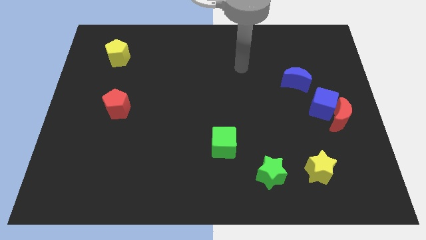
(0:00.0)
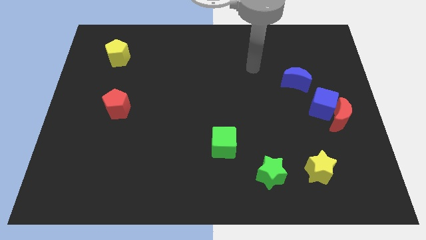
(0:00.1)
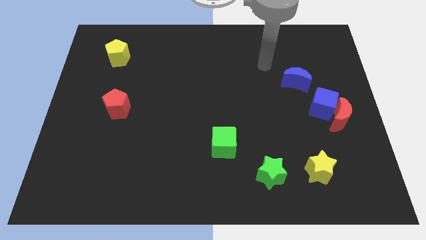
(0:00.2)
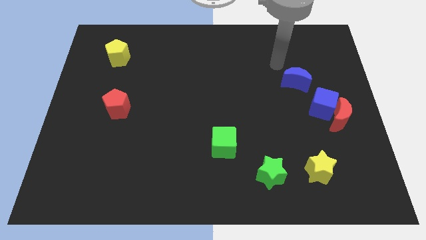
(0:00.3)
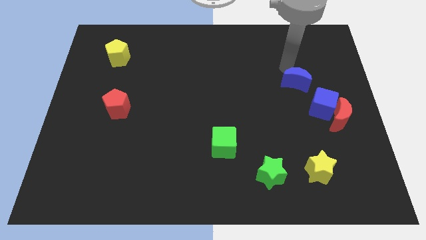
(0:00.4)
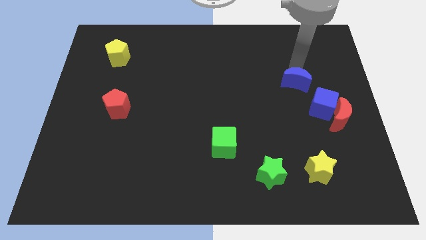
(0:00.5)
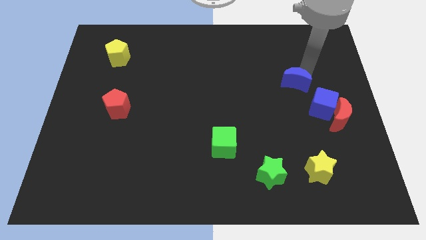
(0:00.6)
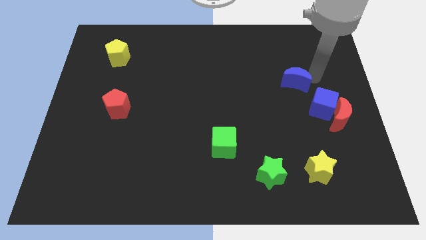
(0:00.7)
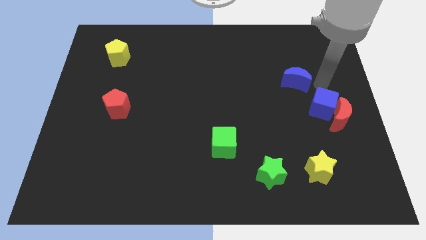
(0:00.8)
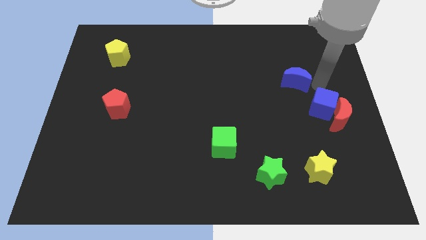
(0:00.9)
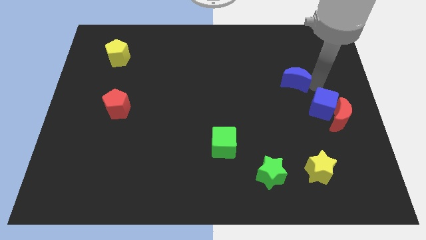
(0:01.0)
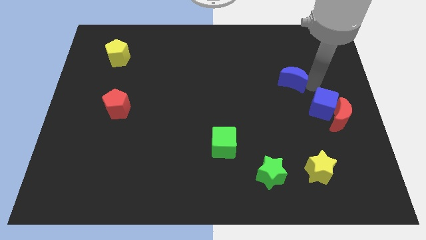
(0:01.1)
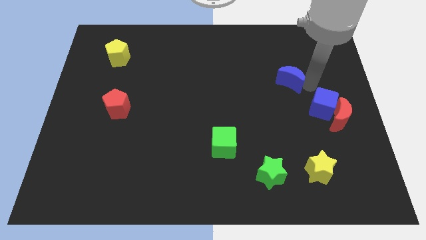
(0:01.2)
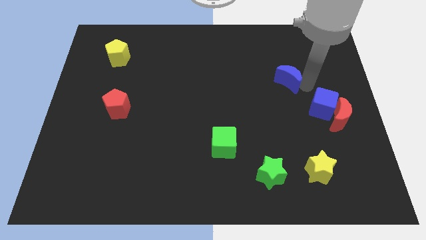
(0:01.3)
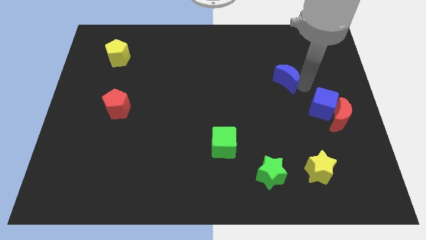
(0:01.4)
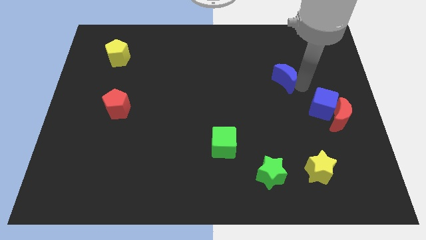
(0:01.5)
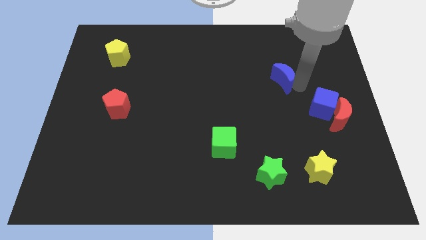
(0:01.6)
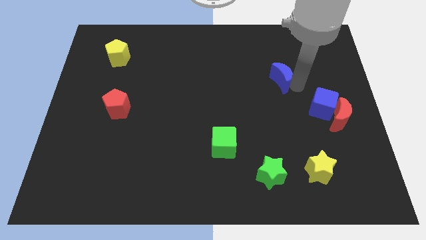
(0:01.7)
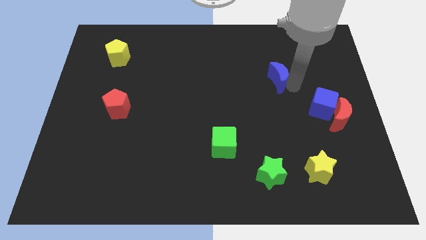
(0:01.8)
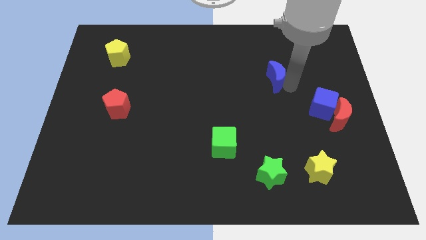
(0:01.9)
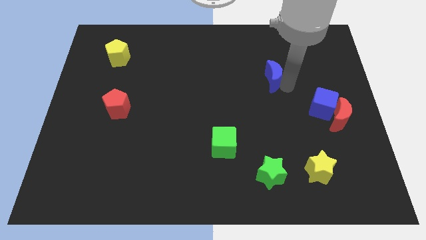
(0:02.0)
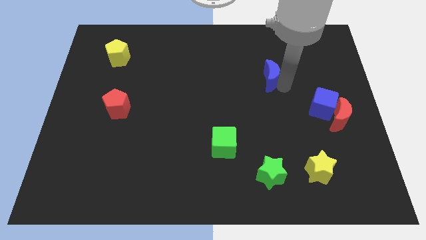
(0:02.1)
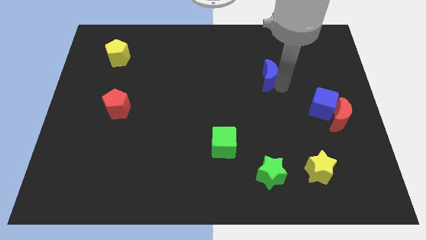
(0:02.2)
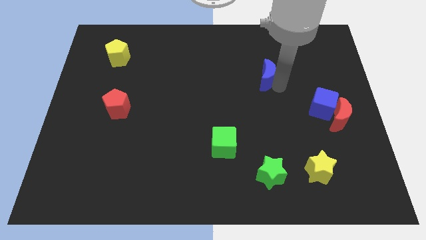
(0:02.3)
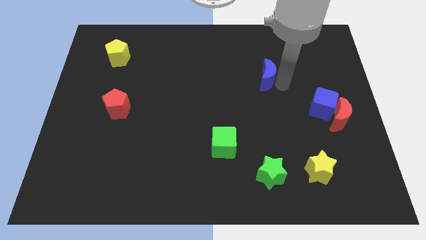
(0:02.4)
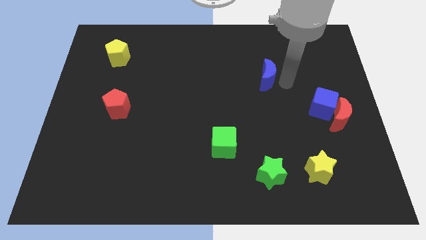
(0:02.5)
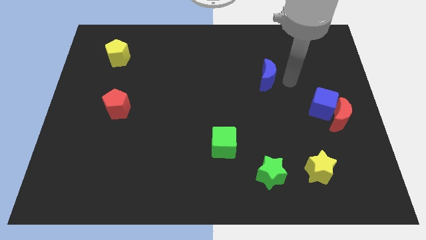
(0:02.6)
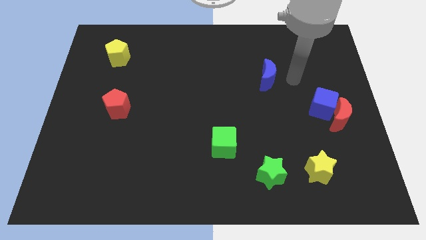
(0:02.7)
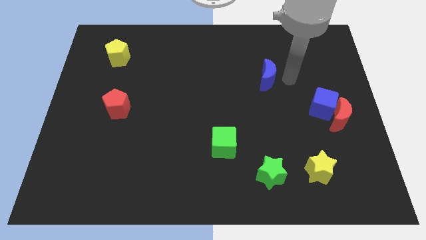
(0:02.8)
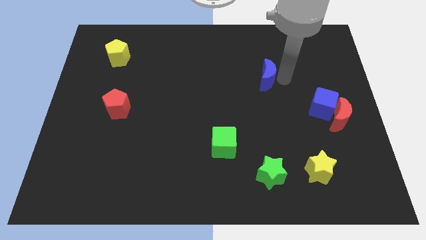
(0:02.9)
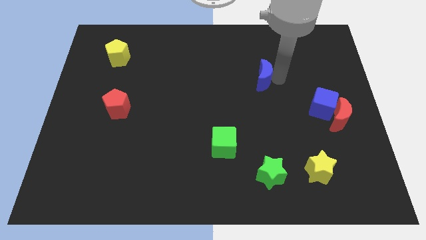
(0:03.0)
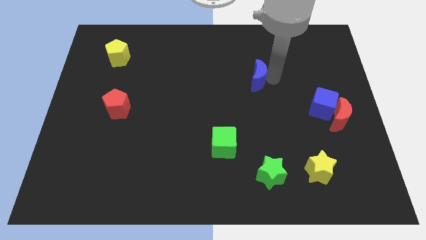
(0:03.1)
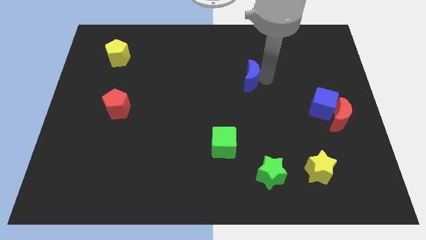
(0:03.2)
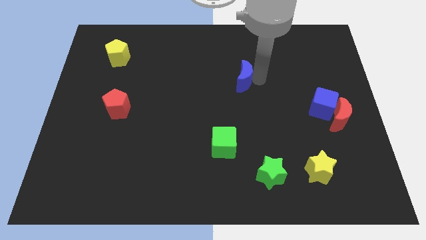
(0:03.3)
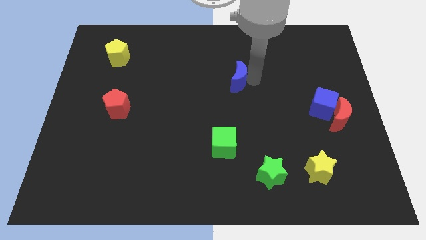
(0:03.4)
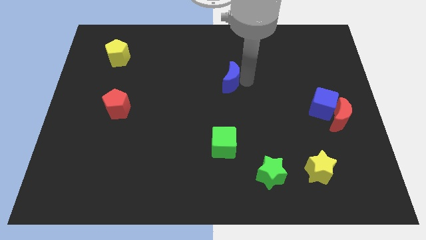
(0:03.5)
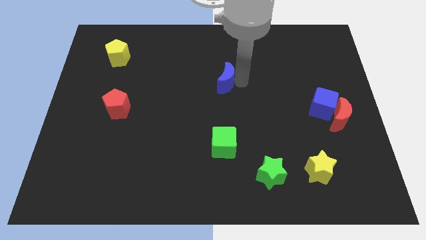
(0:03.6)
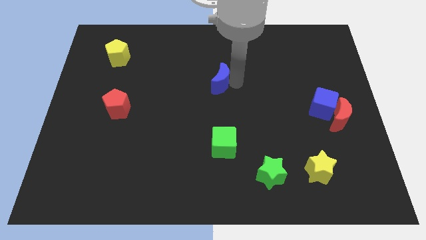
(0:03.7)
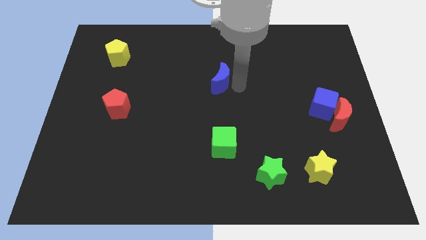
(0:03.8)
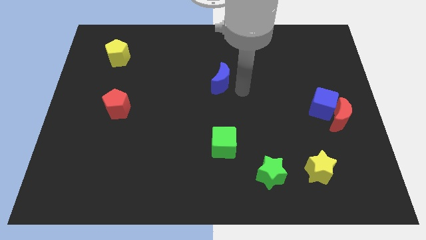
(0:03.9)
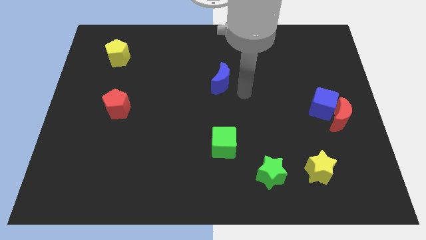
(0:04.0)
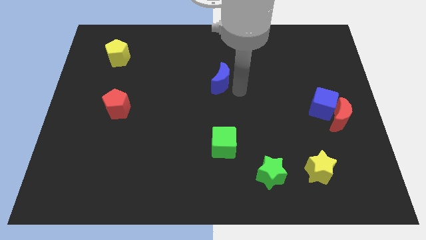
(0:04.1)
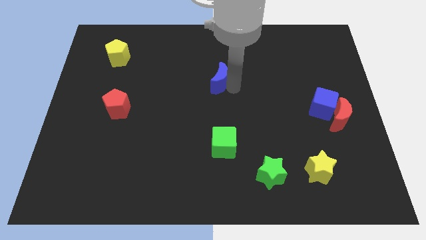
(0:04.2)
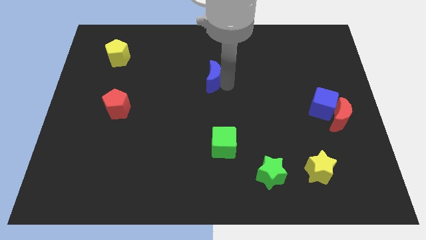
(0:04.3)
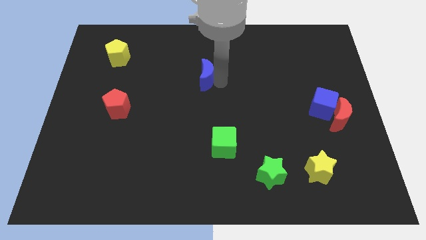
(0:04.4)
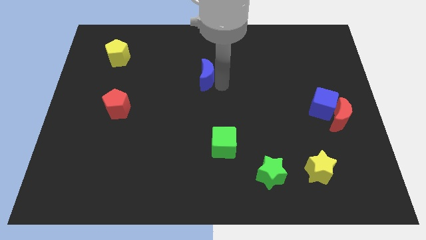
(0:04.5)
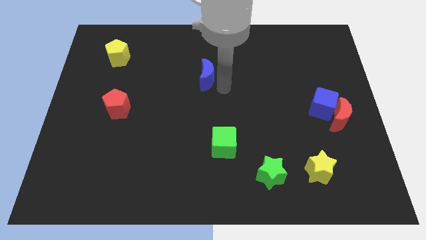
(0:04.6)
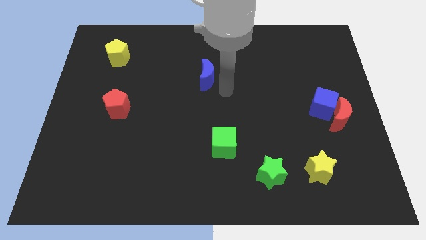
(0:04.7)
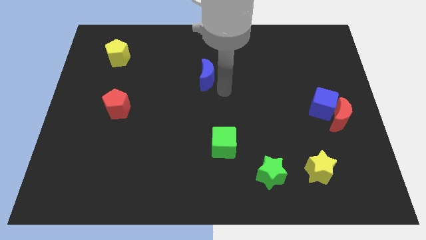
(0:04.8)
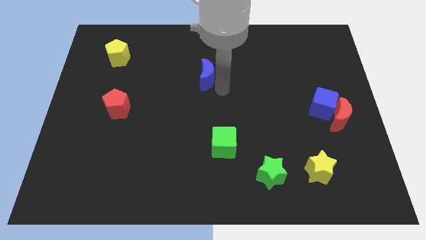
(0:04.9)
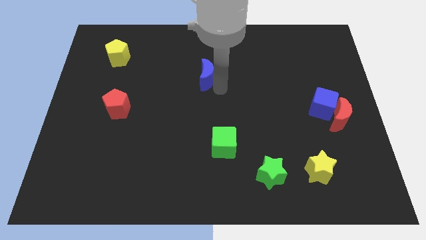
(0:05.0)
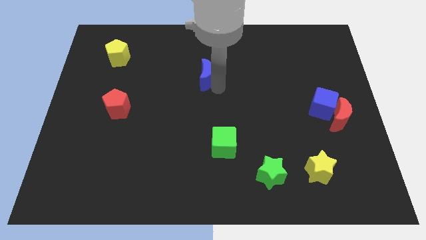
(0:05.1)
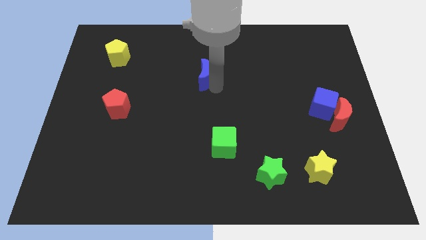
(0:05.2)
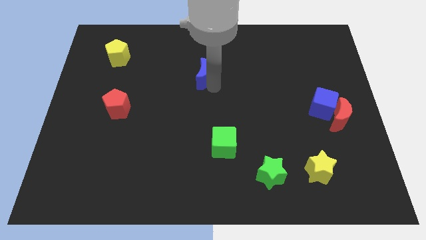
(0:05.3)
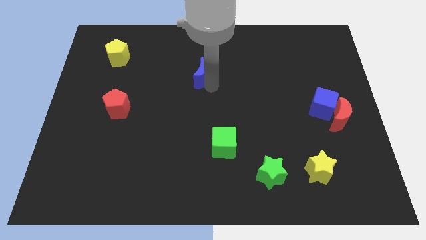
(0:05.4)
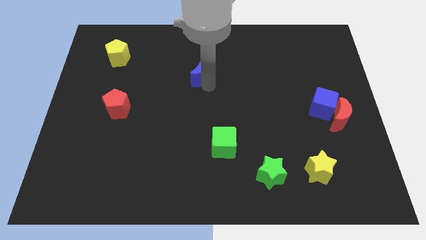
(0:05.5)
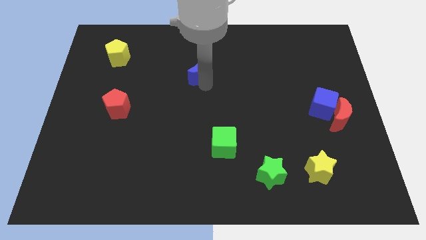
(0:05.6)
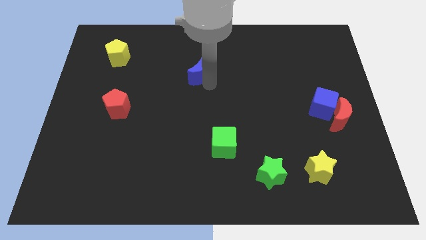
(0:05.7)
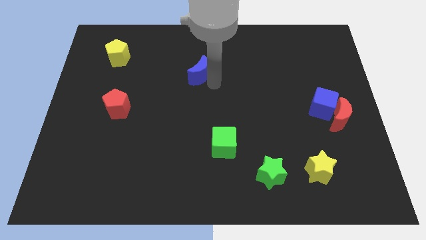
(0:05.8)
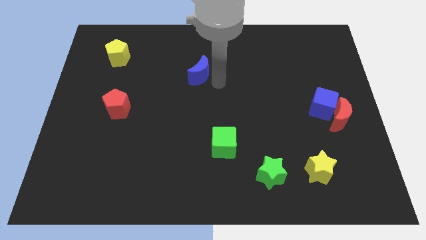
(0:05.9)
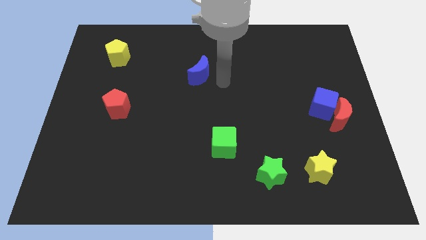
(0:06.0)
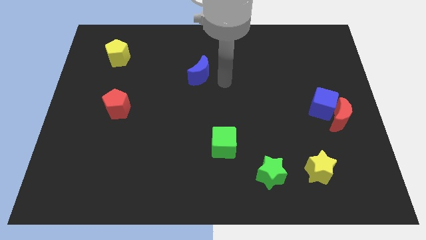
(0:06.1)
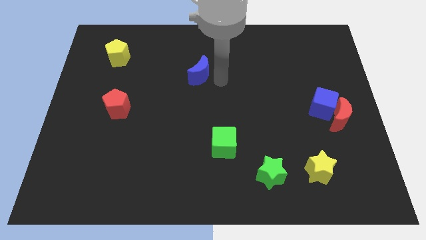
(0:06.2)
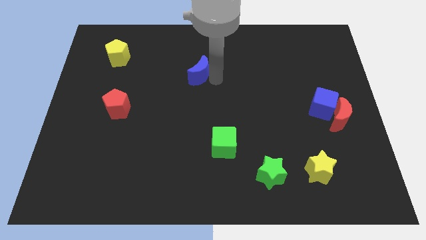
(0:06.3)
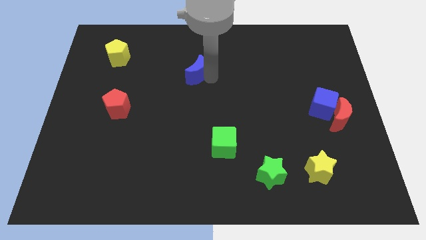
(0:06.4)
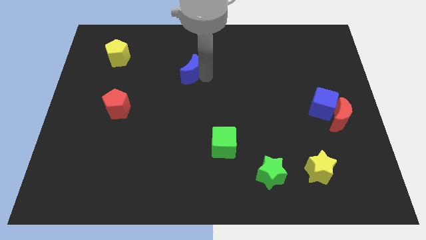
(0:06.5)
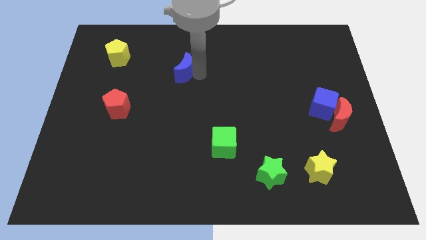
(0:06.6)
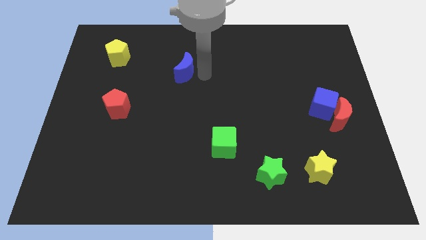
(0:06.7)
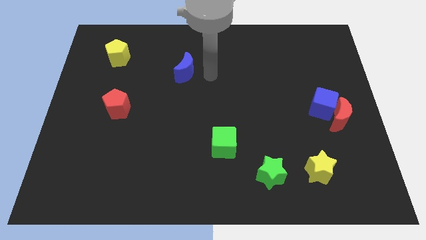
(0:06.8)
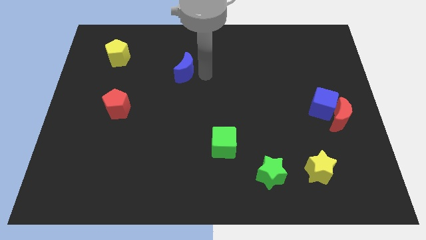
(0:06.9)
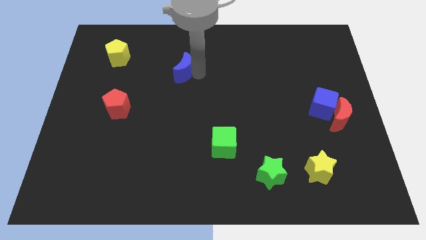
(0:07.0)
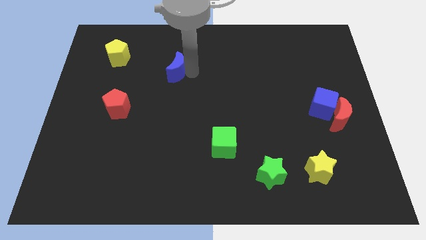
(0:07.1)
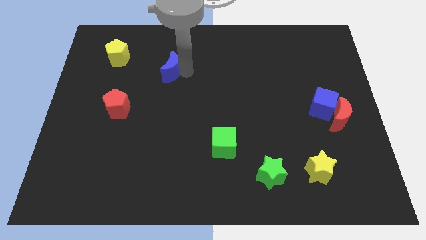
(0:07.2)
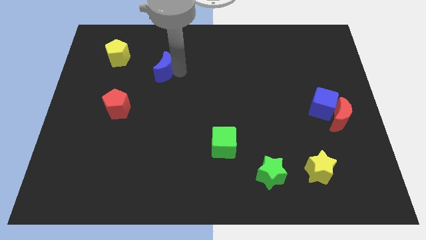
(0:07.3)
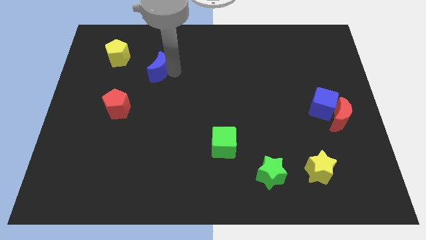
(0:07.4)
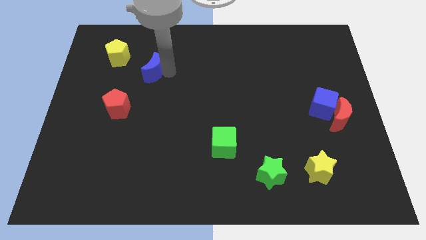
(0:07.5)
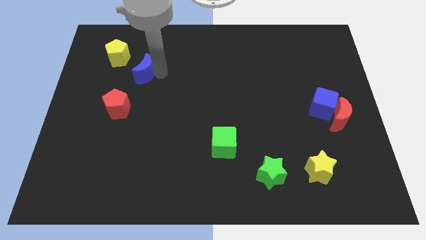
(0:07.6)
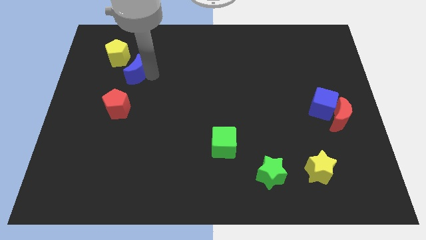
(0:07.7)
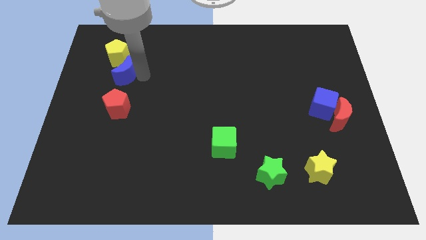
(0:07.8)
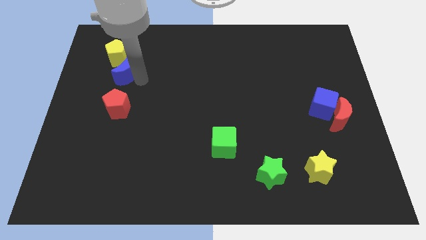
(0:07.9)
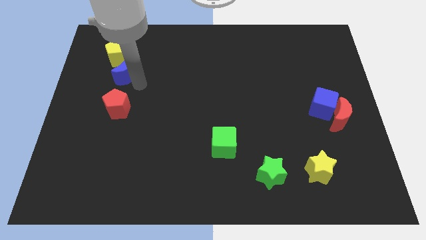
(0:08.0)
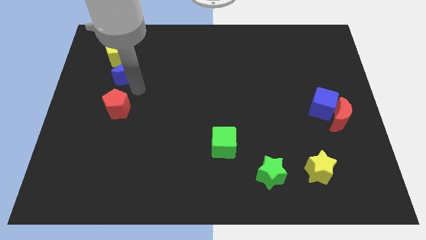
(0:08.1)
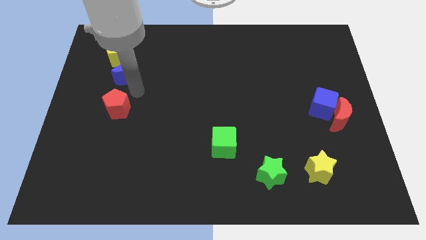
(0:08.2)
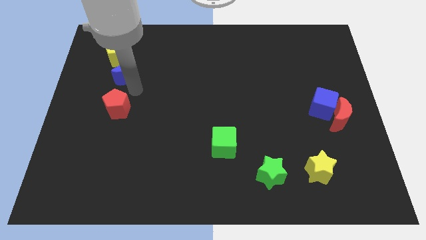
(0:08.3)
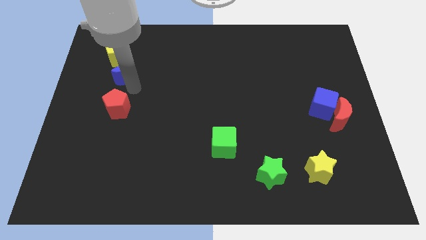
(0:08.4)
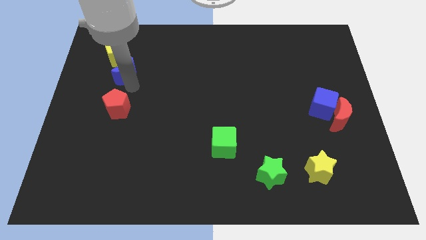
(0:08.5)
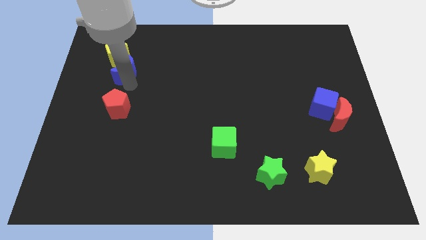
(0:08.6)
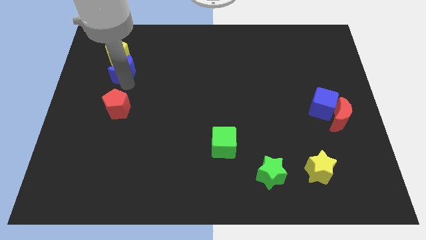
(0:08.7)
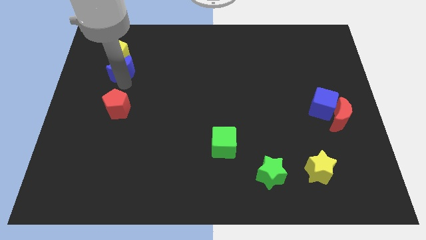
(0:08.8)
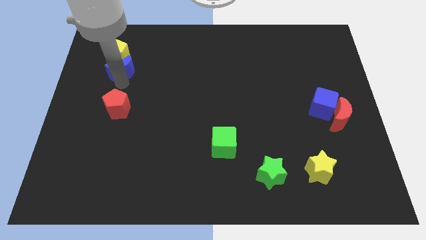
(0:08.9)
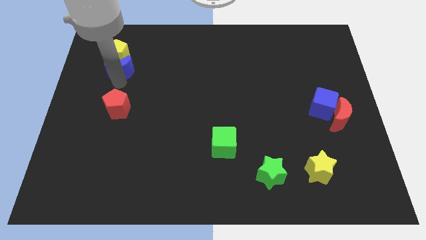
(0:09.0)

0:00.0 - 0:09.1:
move the blue moon next to the yellow pentagon
